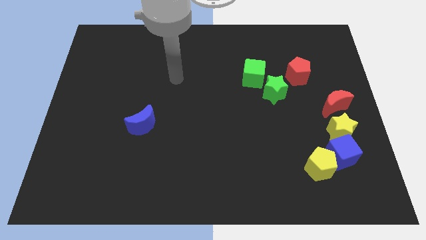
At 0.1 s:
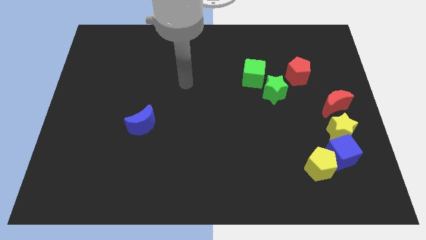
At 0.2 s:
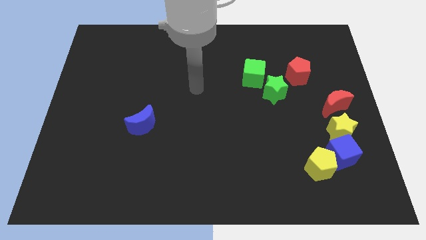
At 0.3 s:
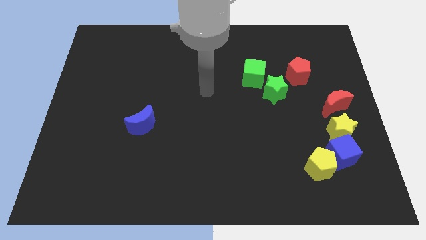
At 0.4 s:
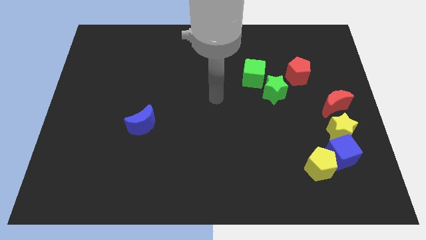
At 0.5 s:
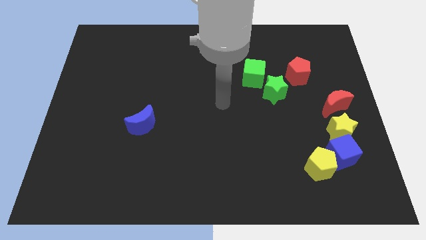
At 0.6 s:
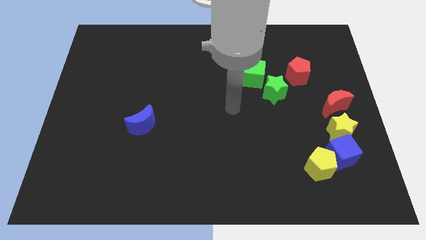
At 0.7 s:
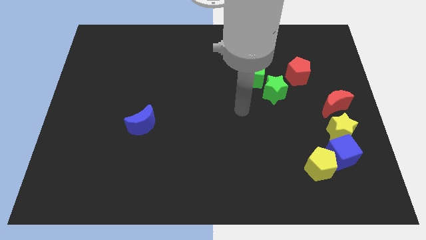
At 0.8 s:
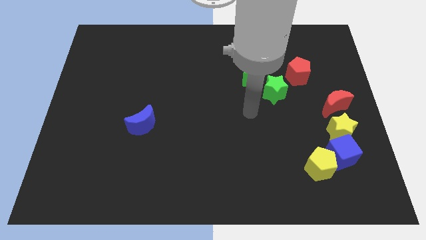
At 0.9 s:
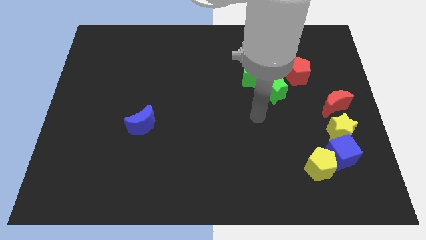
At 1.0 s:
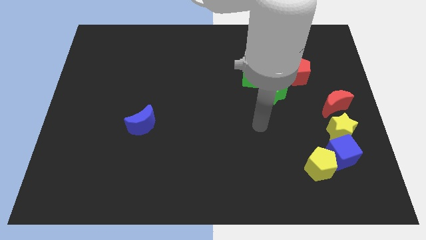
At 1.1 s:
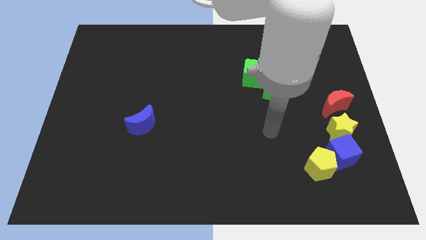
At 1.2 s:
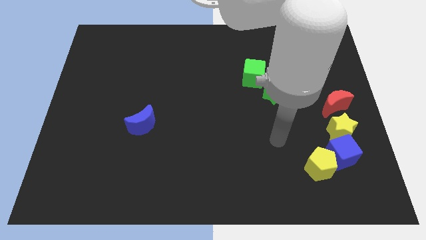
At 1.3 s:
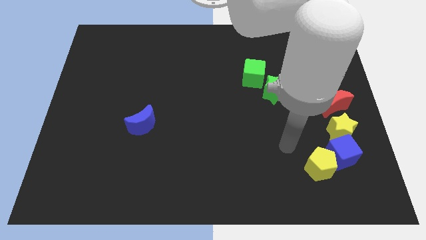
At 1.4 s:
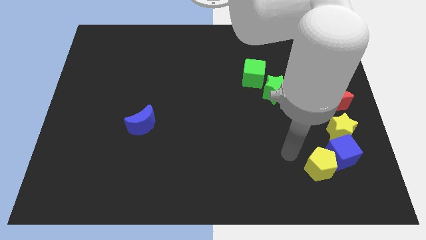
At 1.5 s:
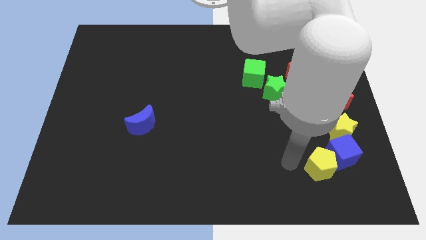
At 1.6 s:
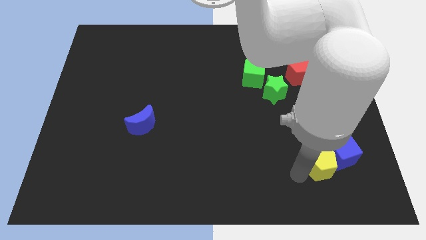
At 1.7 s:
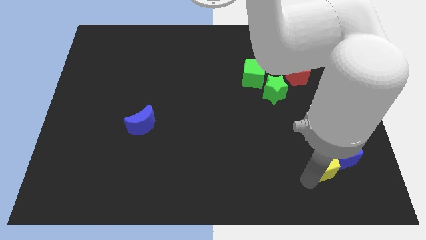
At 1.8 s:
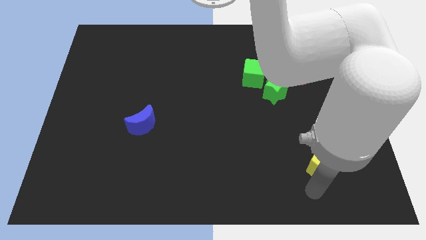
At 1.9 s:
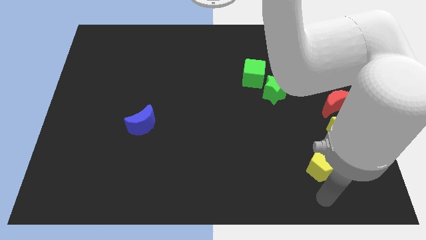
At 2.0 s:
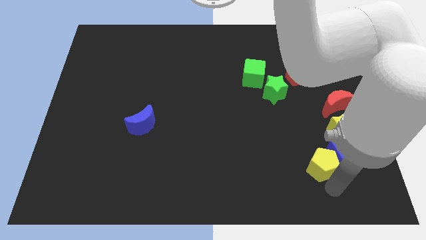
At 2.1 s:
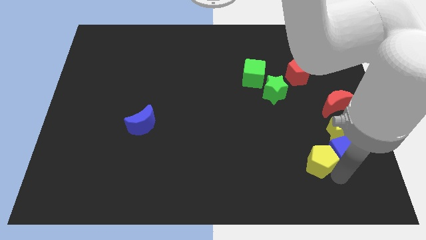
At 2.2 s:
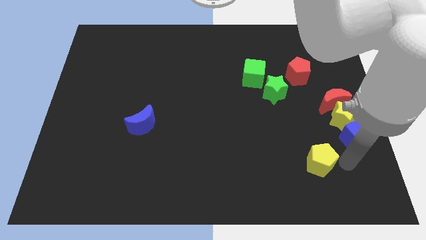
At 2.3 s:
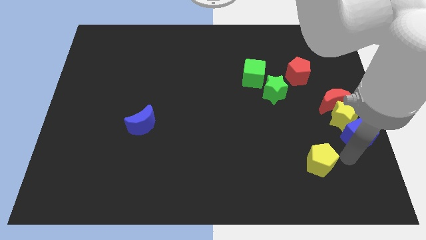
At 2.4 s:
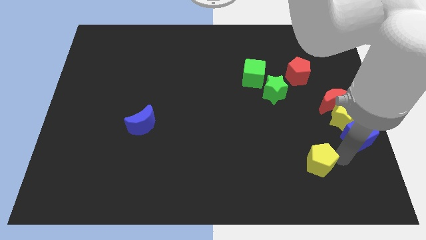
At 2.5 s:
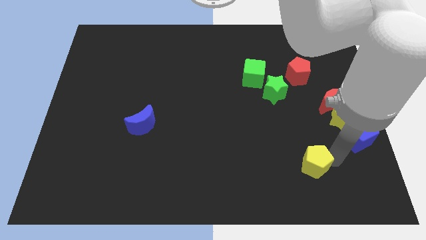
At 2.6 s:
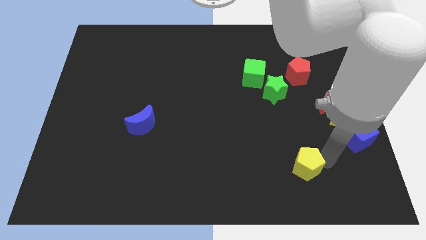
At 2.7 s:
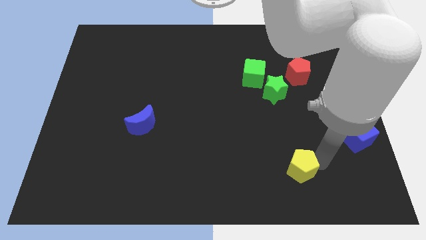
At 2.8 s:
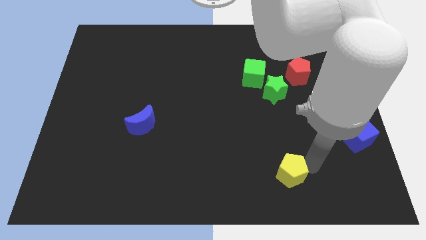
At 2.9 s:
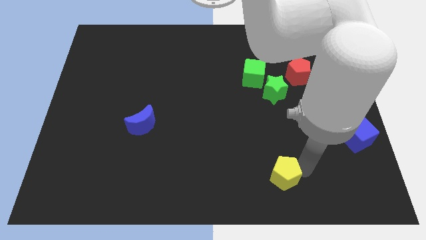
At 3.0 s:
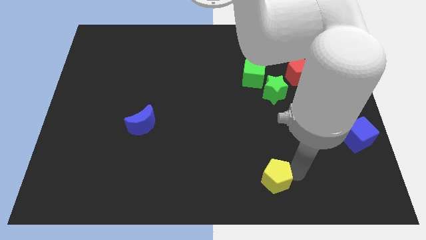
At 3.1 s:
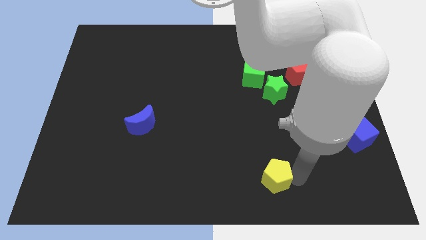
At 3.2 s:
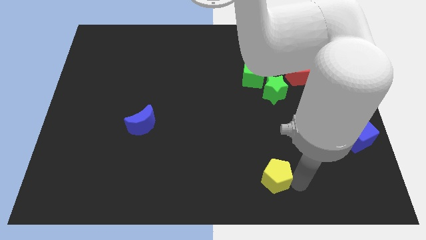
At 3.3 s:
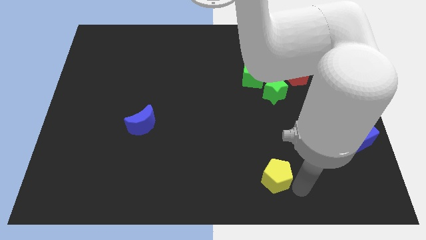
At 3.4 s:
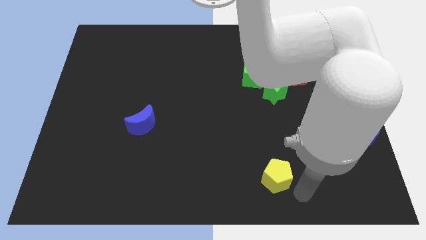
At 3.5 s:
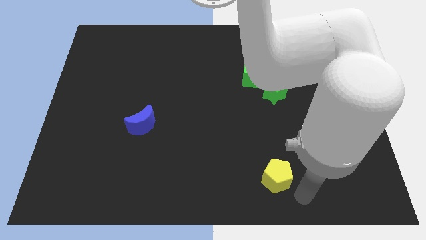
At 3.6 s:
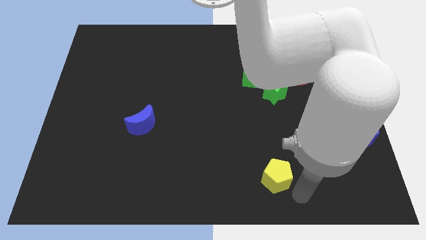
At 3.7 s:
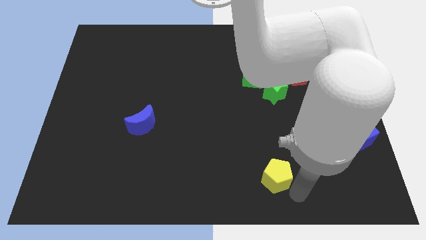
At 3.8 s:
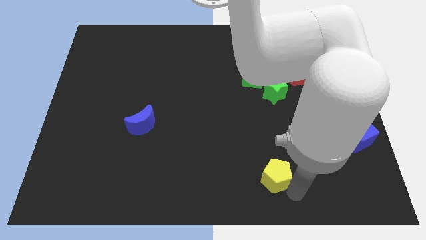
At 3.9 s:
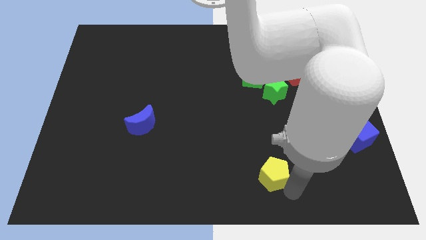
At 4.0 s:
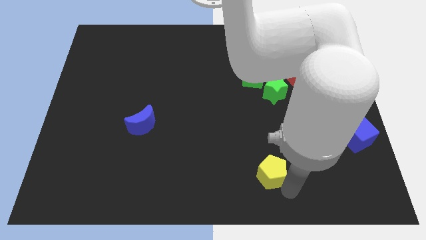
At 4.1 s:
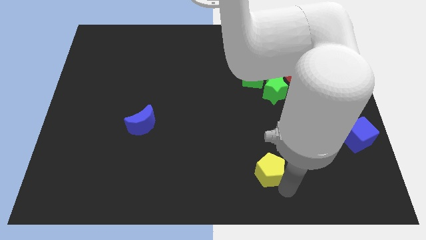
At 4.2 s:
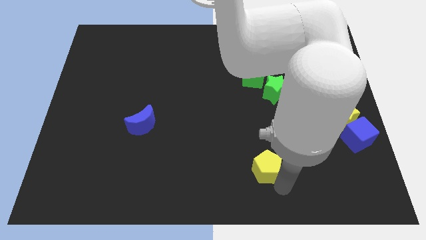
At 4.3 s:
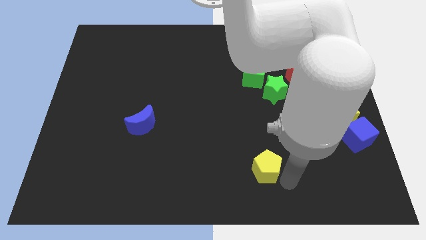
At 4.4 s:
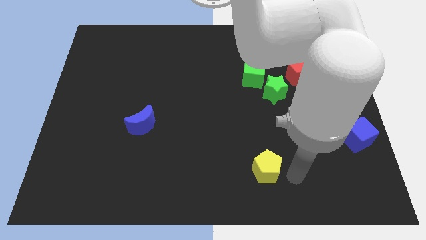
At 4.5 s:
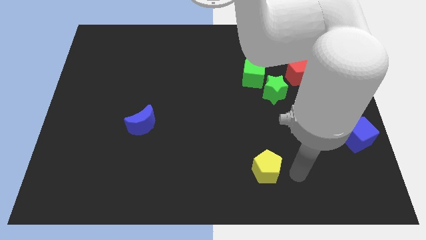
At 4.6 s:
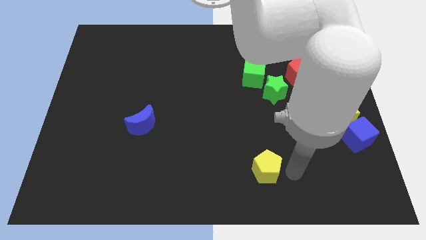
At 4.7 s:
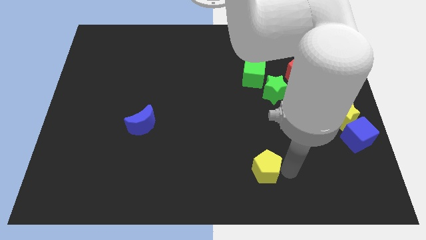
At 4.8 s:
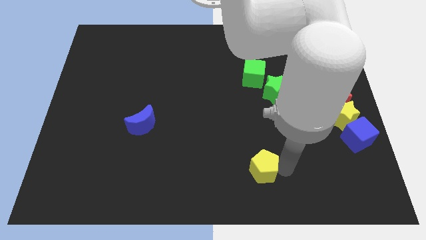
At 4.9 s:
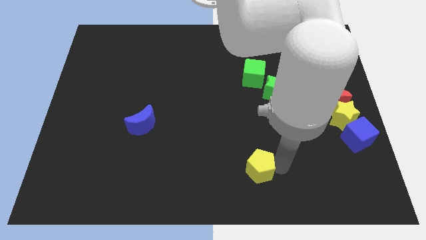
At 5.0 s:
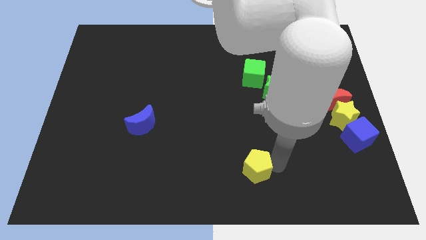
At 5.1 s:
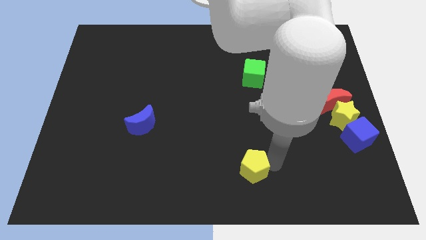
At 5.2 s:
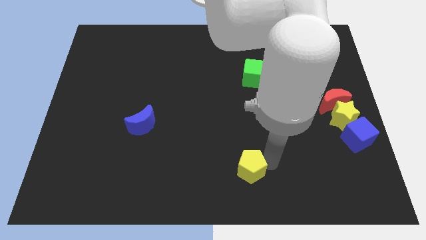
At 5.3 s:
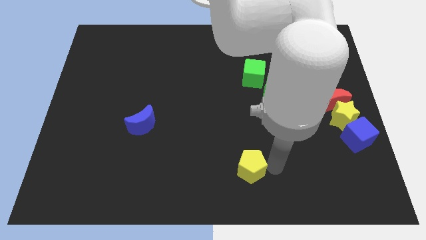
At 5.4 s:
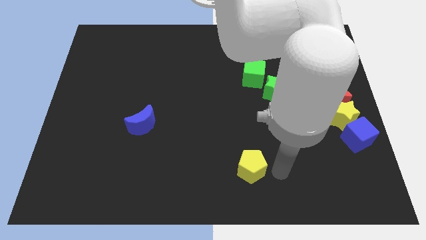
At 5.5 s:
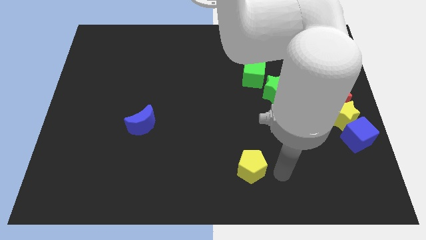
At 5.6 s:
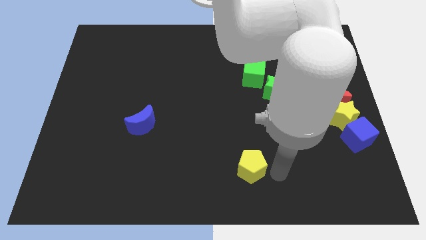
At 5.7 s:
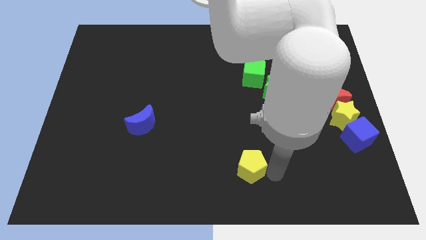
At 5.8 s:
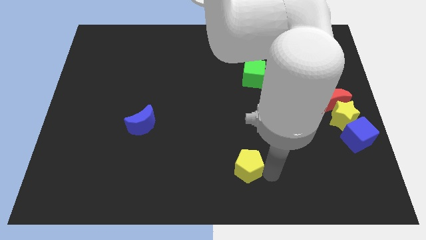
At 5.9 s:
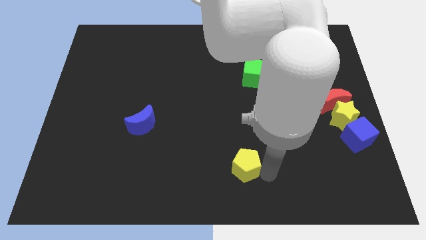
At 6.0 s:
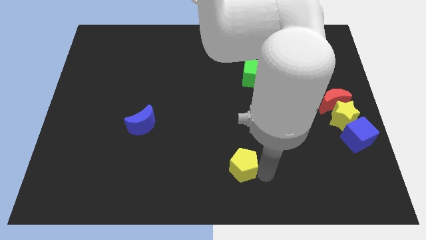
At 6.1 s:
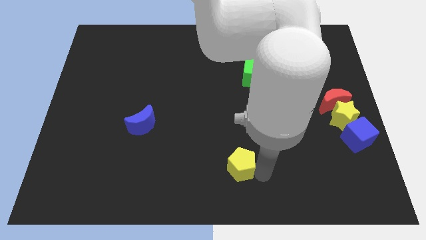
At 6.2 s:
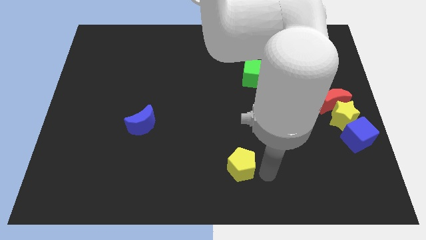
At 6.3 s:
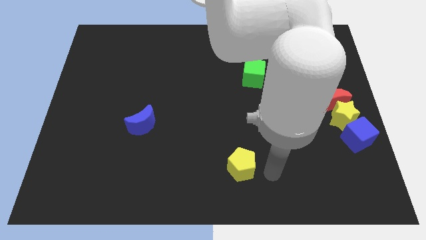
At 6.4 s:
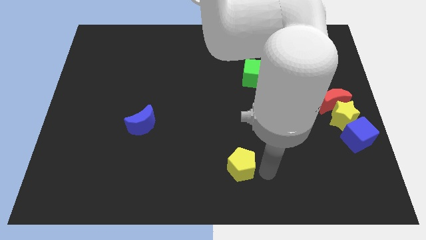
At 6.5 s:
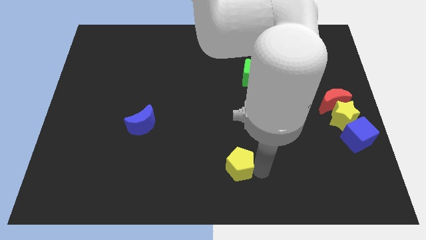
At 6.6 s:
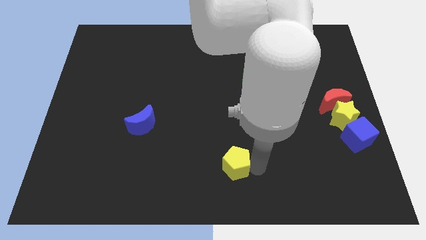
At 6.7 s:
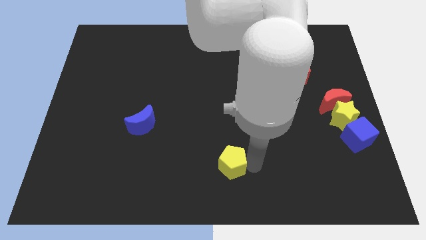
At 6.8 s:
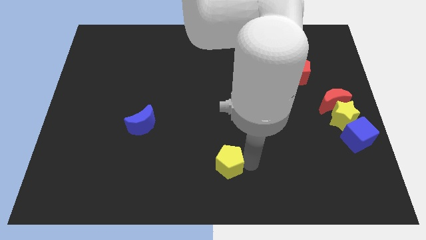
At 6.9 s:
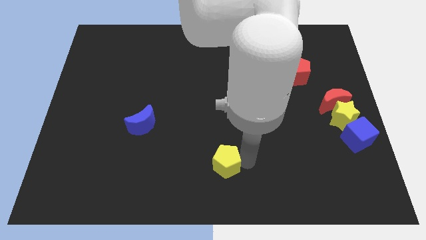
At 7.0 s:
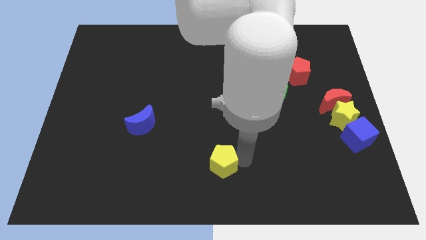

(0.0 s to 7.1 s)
push the yellow pentagon to the left

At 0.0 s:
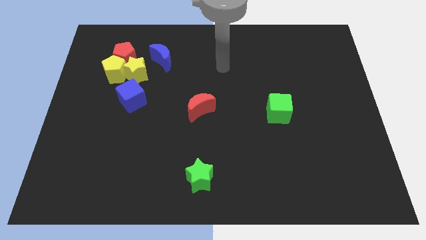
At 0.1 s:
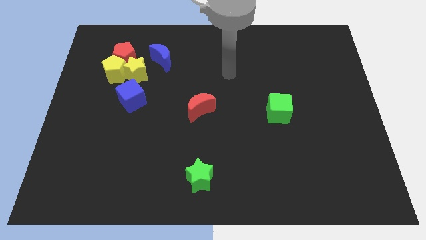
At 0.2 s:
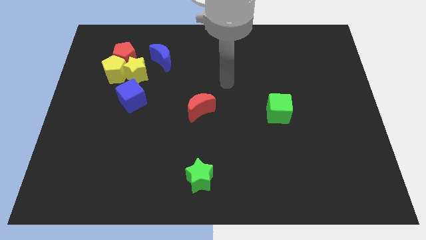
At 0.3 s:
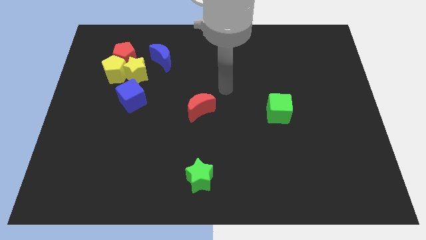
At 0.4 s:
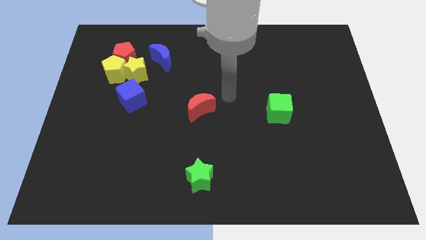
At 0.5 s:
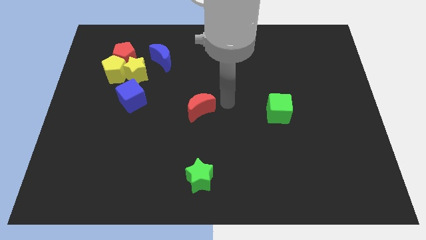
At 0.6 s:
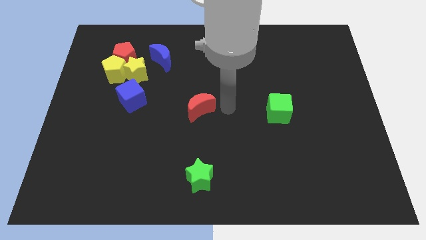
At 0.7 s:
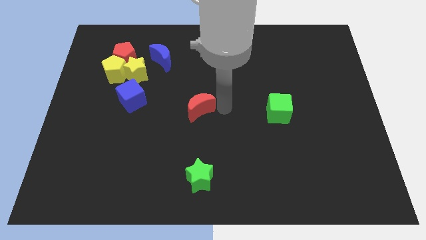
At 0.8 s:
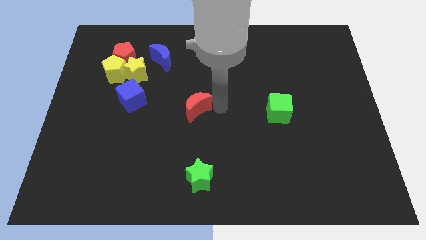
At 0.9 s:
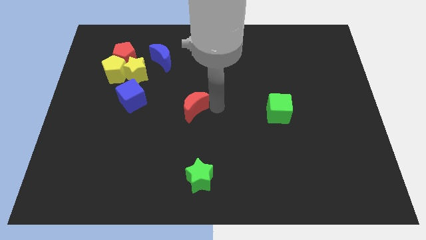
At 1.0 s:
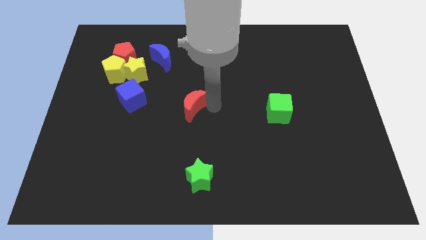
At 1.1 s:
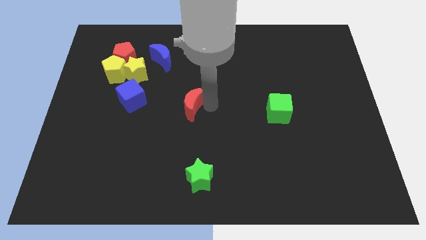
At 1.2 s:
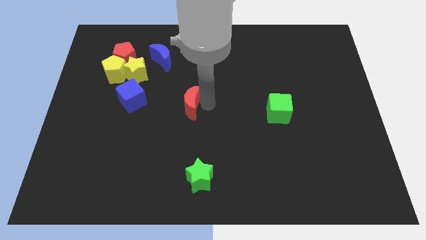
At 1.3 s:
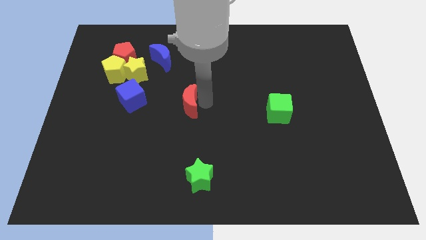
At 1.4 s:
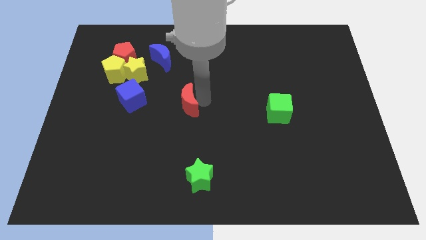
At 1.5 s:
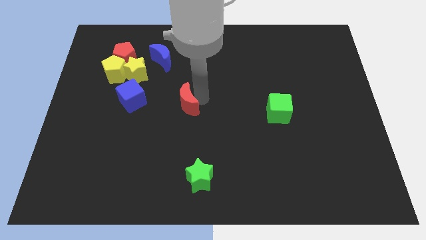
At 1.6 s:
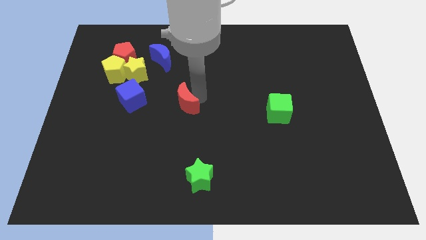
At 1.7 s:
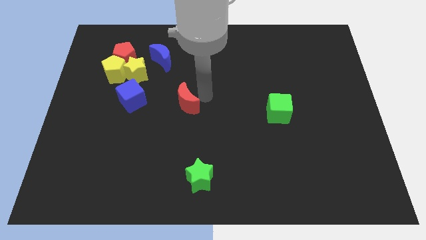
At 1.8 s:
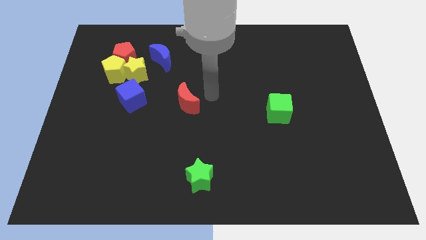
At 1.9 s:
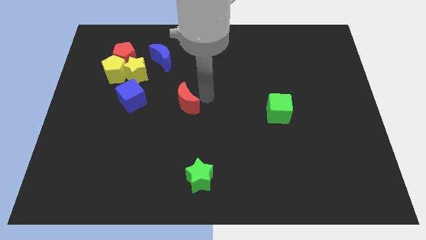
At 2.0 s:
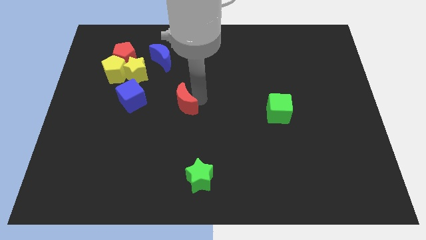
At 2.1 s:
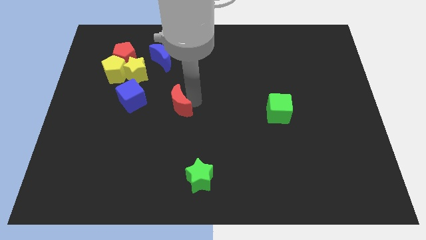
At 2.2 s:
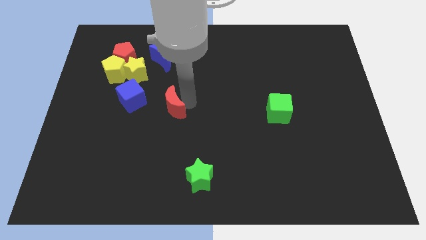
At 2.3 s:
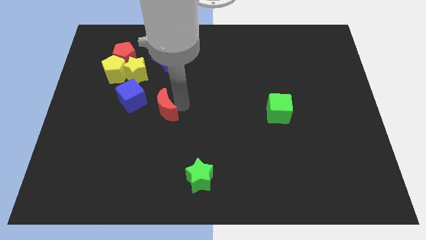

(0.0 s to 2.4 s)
slightly move the red moon left
